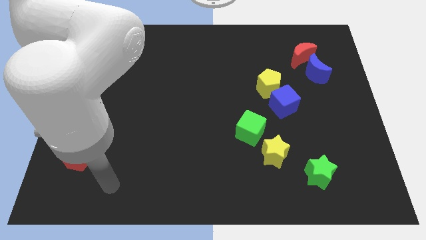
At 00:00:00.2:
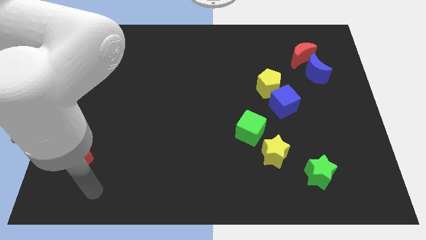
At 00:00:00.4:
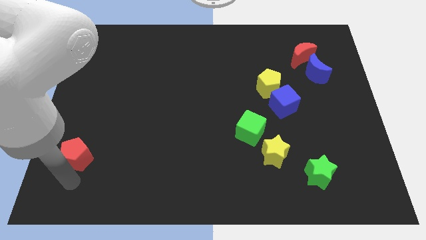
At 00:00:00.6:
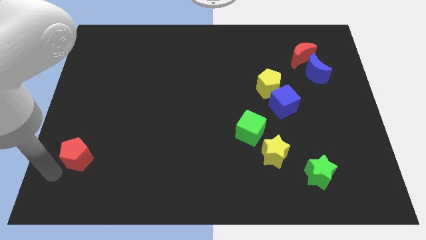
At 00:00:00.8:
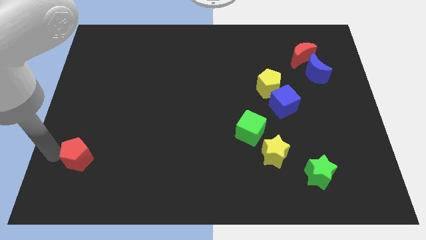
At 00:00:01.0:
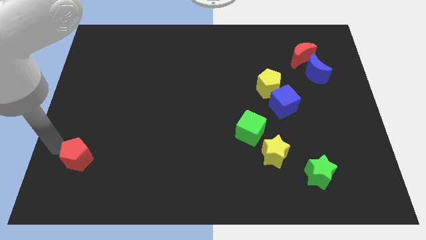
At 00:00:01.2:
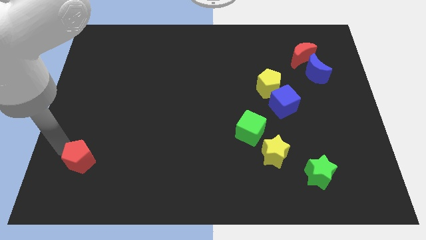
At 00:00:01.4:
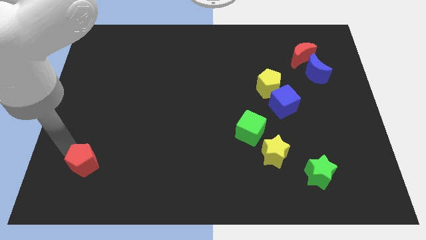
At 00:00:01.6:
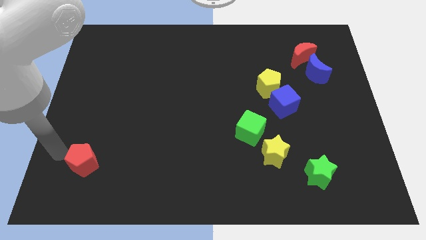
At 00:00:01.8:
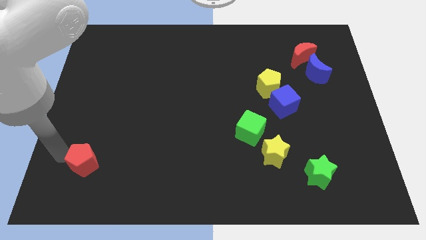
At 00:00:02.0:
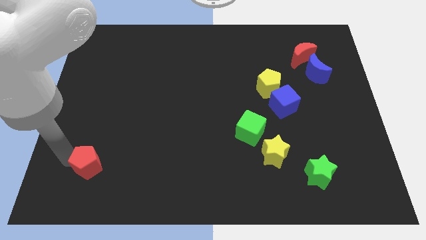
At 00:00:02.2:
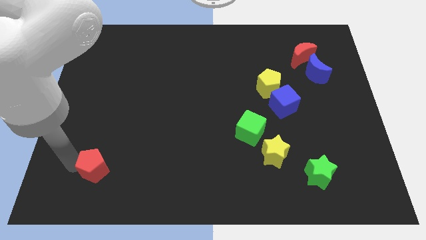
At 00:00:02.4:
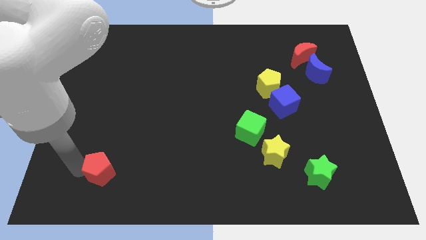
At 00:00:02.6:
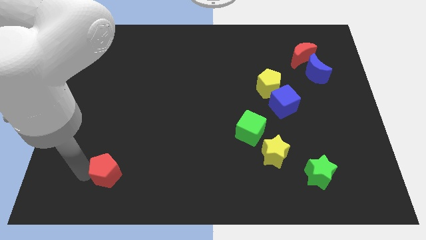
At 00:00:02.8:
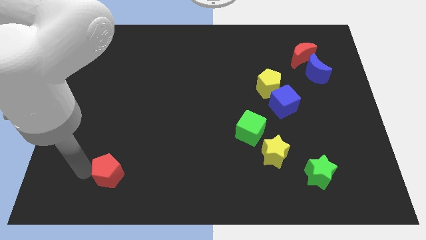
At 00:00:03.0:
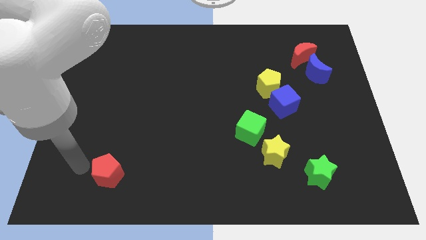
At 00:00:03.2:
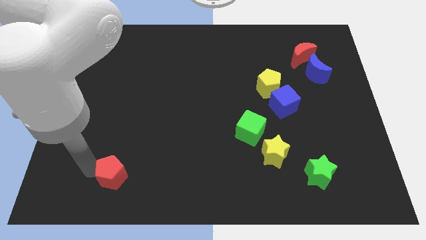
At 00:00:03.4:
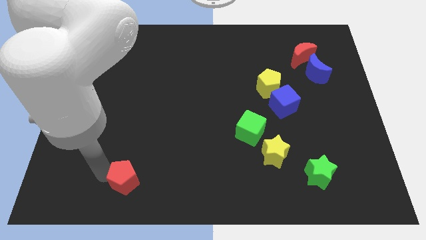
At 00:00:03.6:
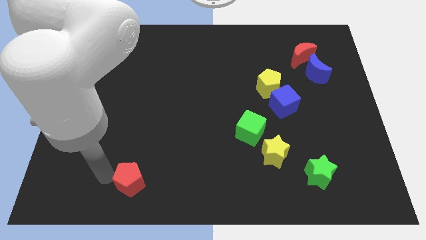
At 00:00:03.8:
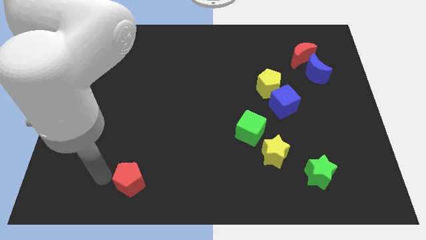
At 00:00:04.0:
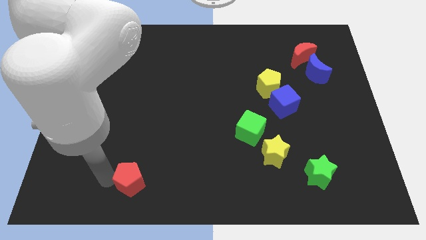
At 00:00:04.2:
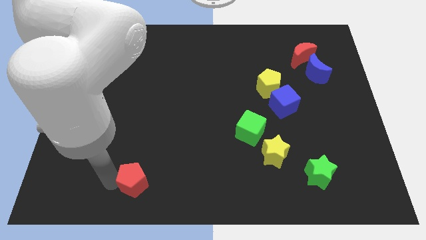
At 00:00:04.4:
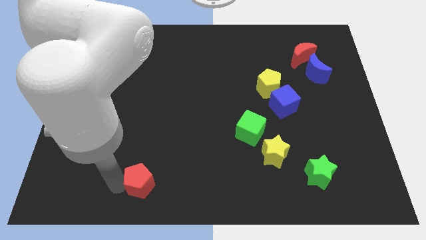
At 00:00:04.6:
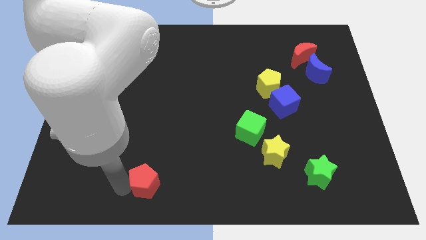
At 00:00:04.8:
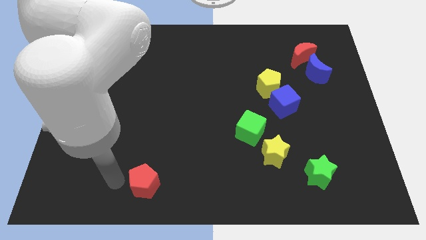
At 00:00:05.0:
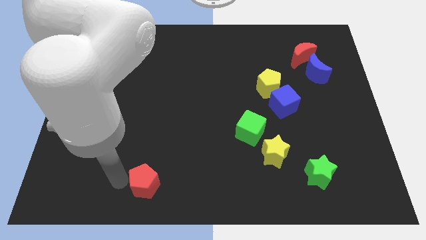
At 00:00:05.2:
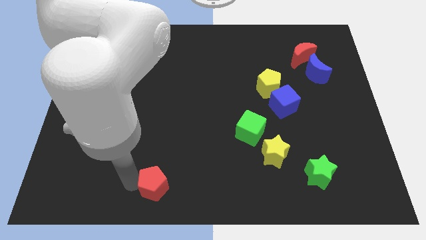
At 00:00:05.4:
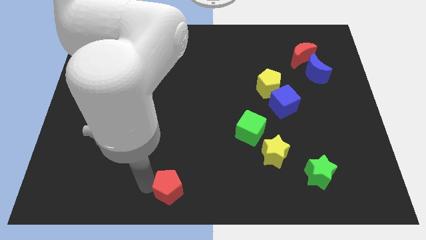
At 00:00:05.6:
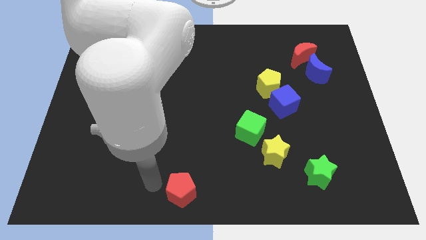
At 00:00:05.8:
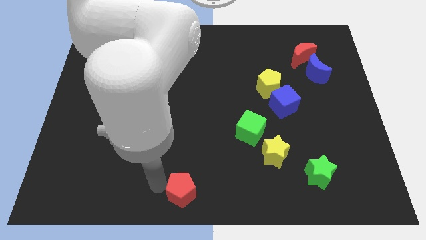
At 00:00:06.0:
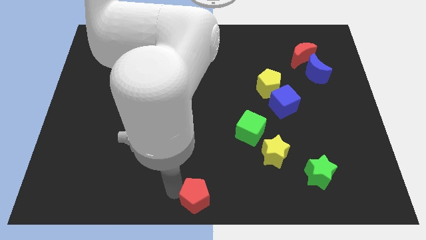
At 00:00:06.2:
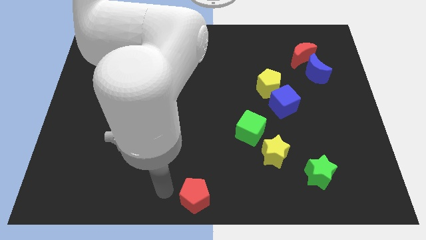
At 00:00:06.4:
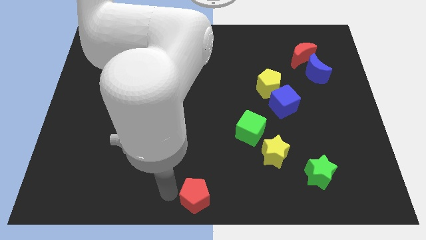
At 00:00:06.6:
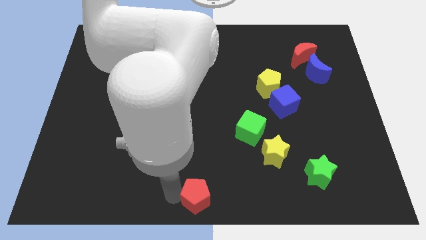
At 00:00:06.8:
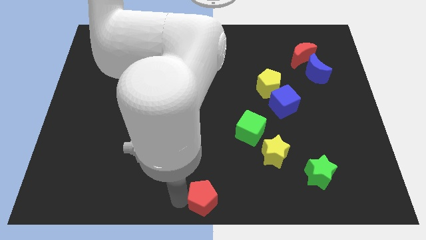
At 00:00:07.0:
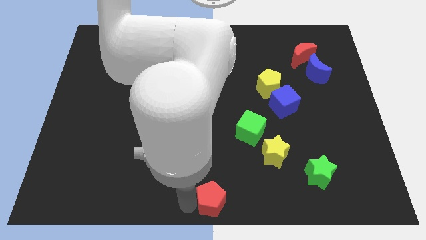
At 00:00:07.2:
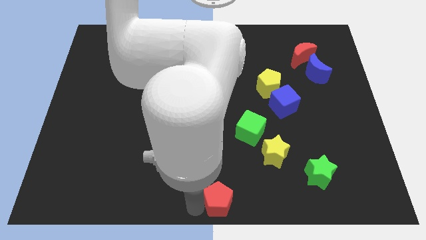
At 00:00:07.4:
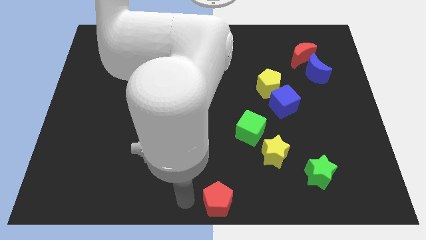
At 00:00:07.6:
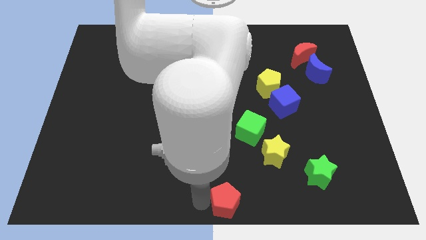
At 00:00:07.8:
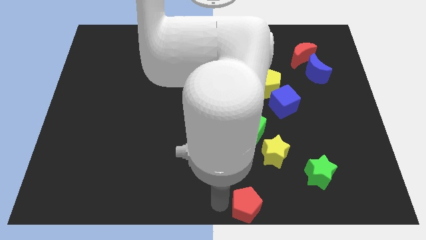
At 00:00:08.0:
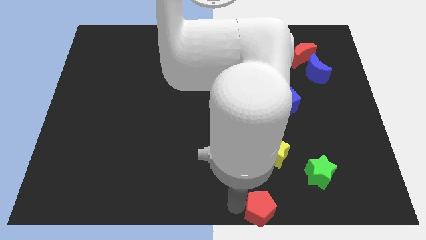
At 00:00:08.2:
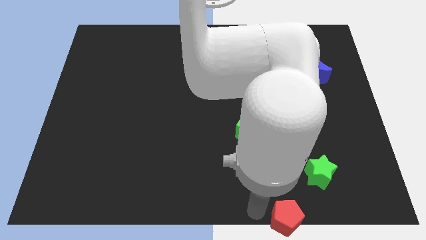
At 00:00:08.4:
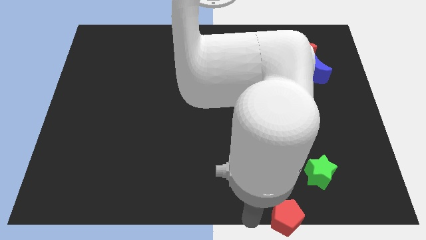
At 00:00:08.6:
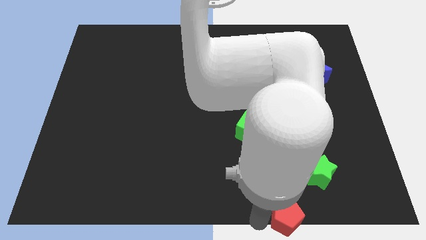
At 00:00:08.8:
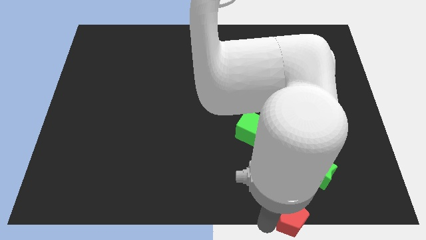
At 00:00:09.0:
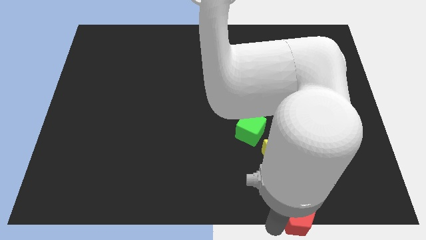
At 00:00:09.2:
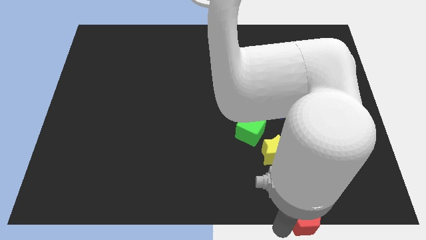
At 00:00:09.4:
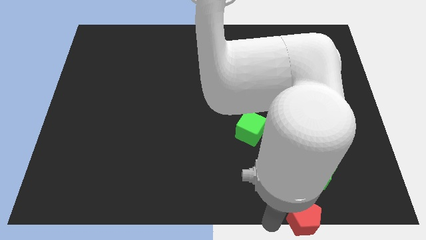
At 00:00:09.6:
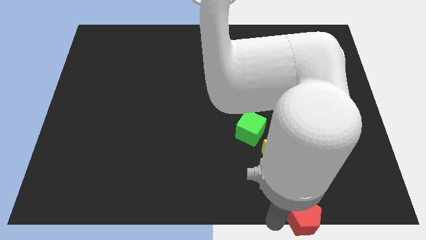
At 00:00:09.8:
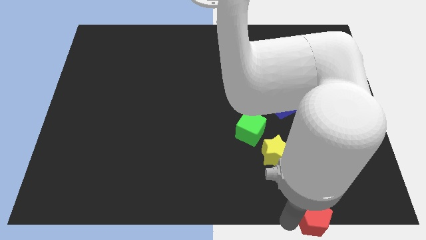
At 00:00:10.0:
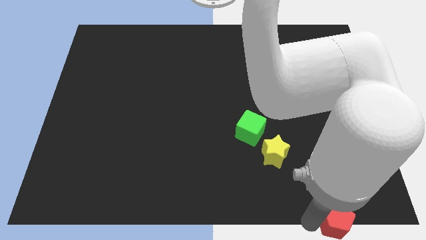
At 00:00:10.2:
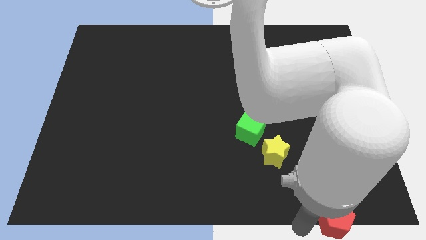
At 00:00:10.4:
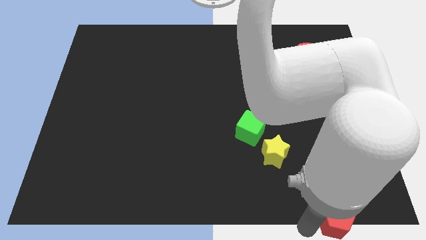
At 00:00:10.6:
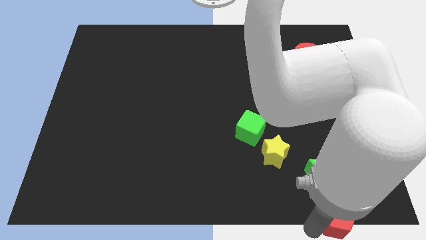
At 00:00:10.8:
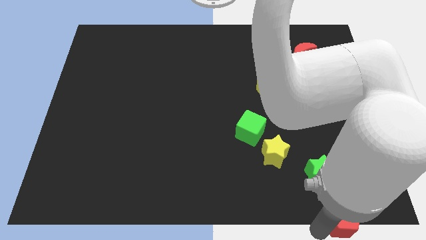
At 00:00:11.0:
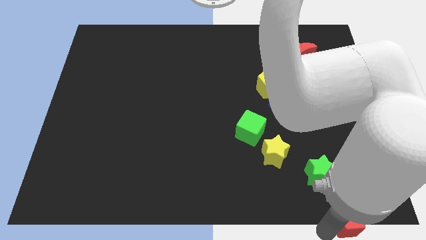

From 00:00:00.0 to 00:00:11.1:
move the red pentagon to the lower right corner

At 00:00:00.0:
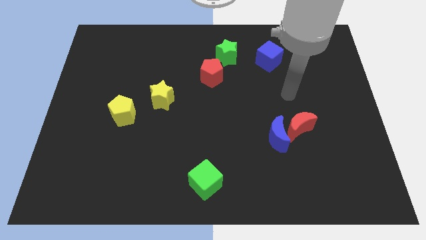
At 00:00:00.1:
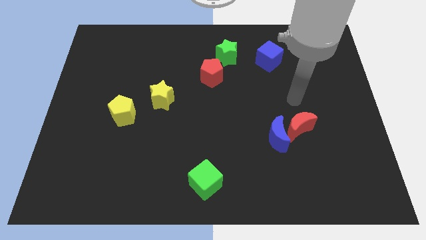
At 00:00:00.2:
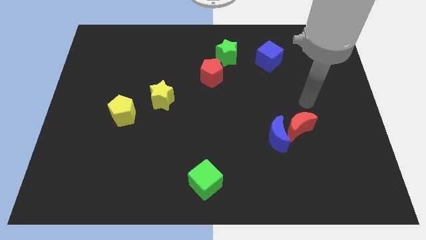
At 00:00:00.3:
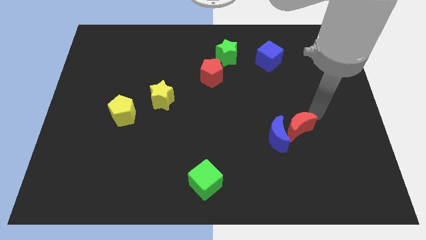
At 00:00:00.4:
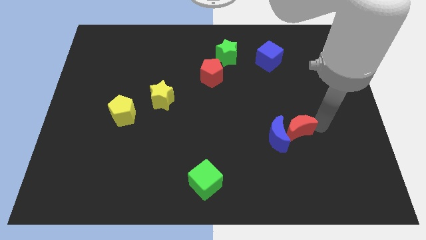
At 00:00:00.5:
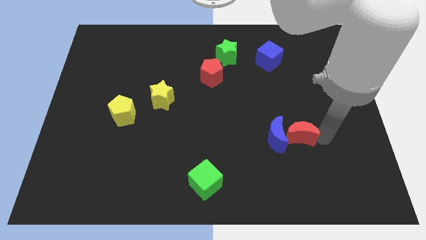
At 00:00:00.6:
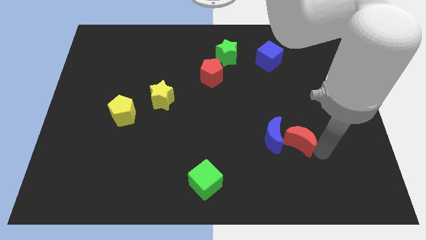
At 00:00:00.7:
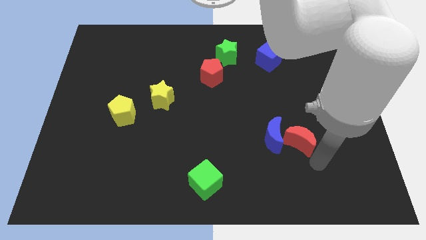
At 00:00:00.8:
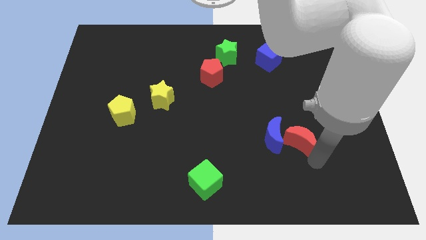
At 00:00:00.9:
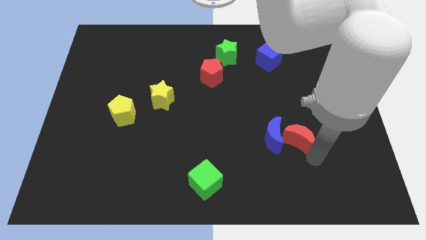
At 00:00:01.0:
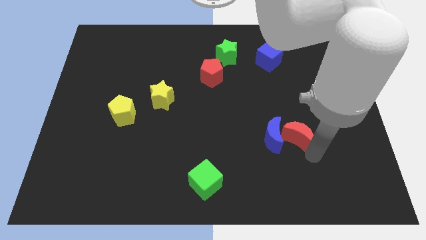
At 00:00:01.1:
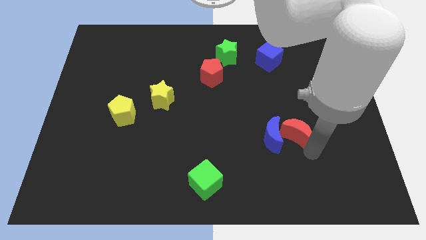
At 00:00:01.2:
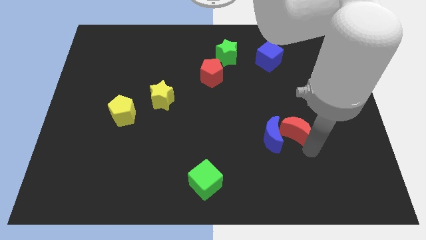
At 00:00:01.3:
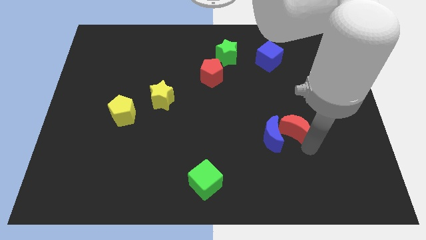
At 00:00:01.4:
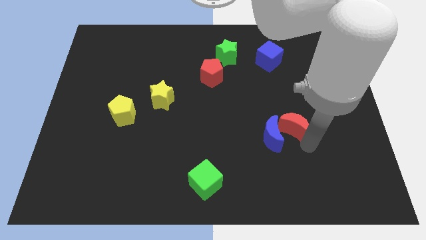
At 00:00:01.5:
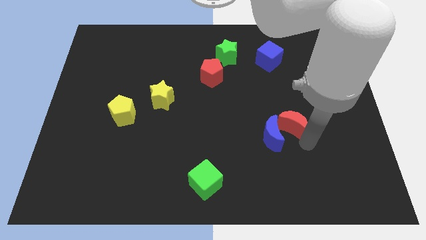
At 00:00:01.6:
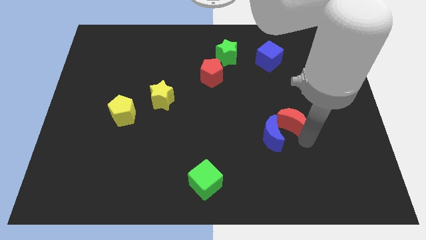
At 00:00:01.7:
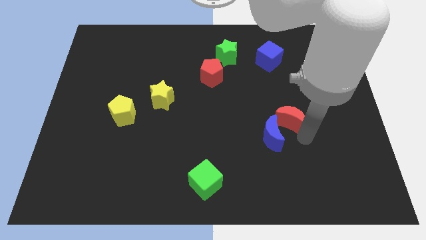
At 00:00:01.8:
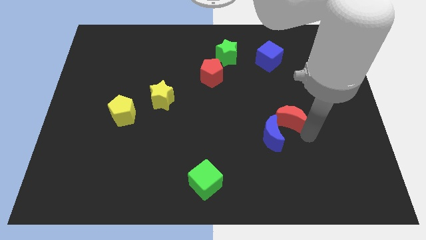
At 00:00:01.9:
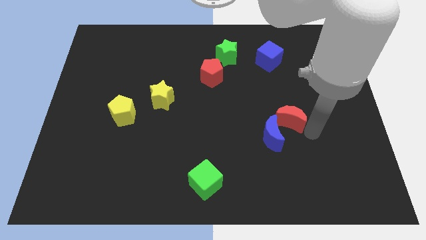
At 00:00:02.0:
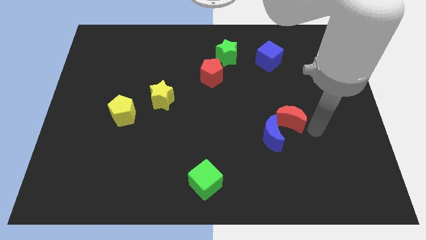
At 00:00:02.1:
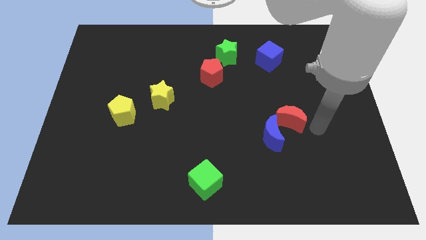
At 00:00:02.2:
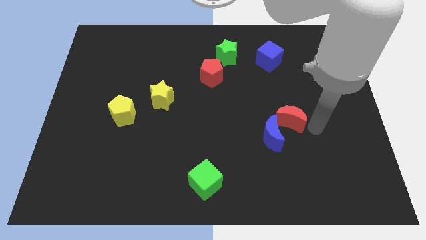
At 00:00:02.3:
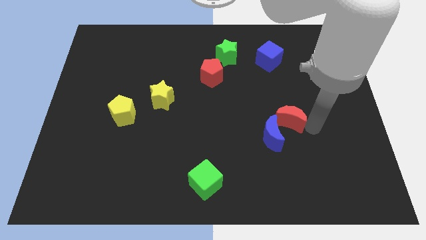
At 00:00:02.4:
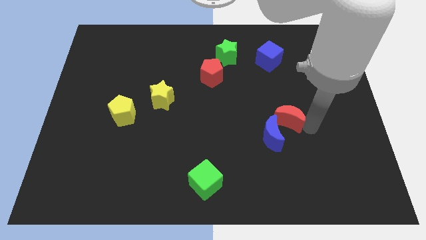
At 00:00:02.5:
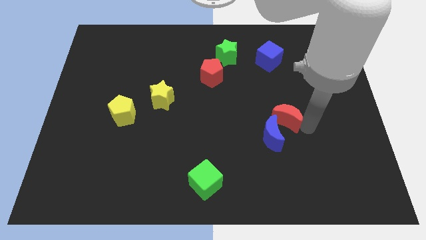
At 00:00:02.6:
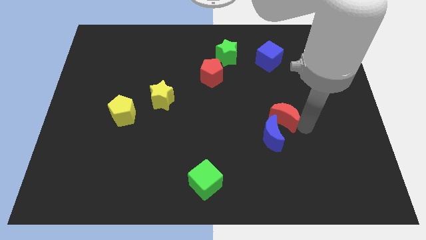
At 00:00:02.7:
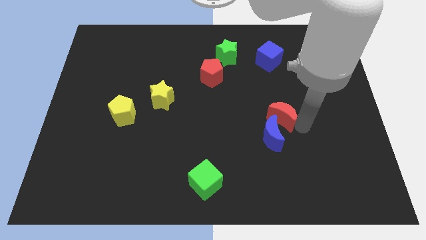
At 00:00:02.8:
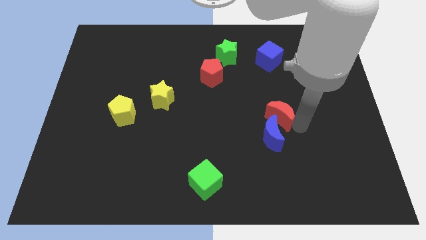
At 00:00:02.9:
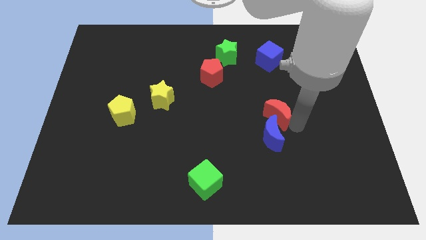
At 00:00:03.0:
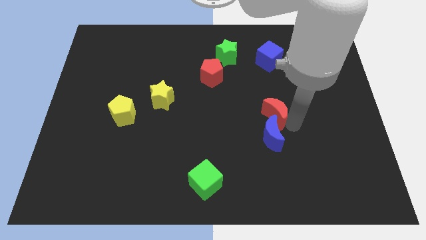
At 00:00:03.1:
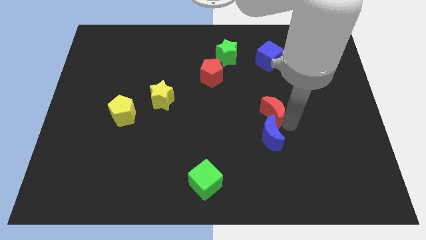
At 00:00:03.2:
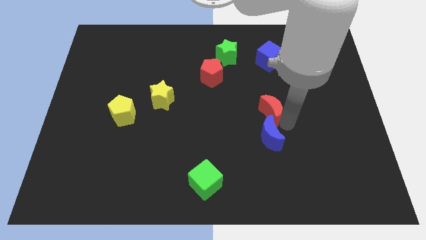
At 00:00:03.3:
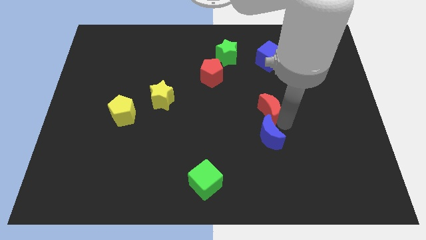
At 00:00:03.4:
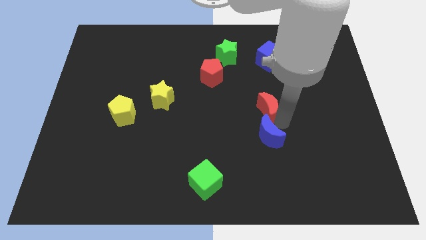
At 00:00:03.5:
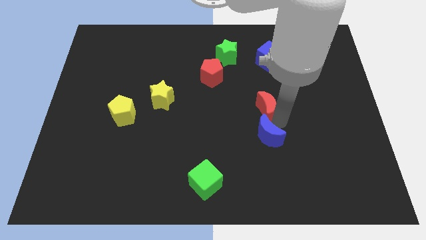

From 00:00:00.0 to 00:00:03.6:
put the red moon to the middle of the board
